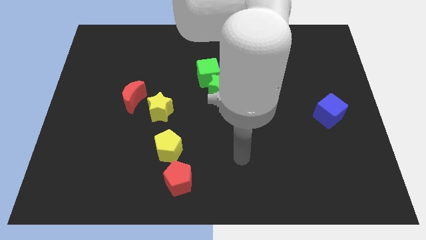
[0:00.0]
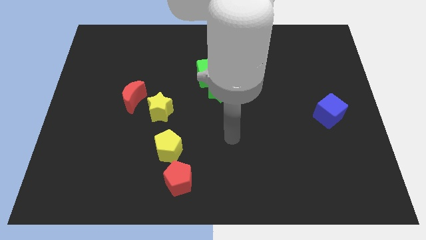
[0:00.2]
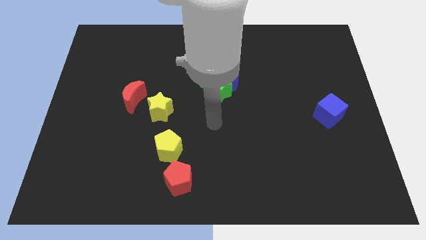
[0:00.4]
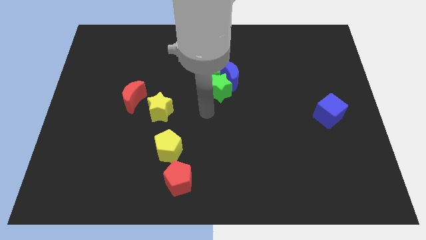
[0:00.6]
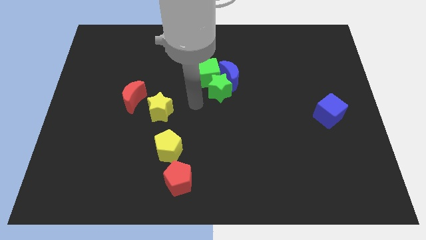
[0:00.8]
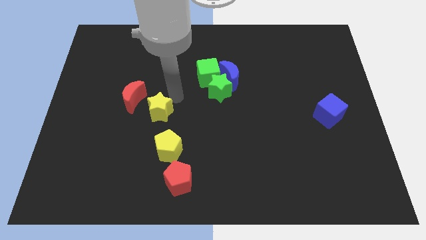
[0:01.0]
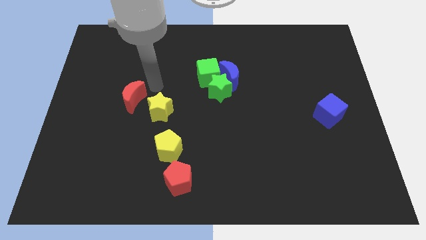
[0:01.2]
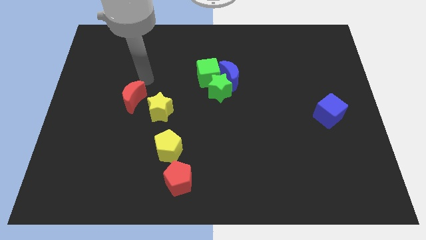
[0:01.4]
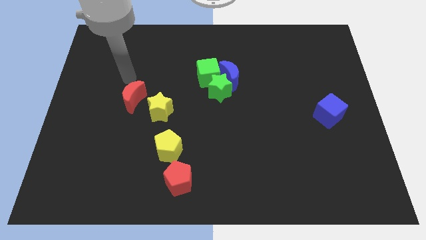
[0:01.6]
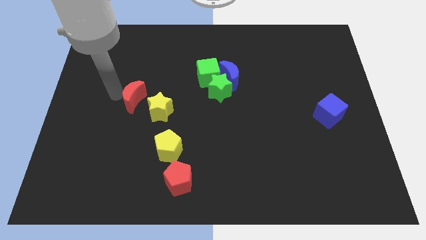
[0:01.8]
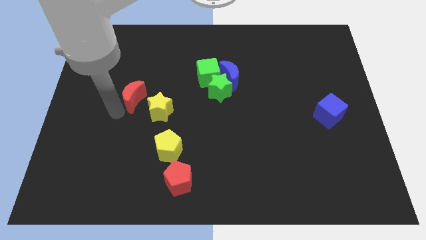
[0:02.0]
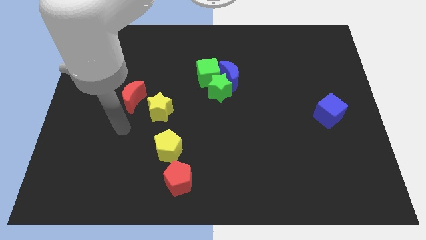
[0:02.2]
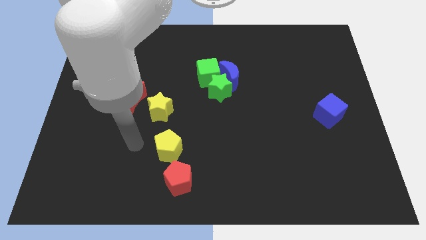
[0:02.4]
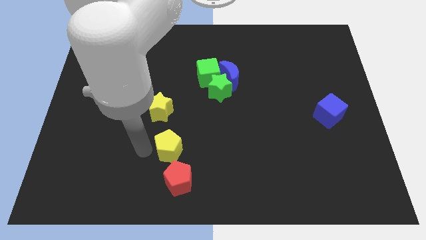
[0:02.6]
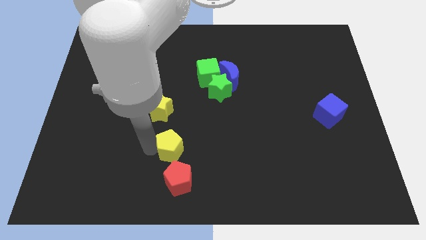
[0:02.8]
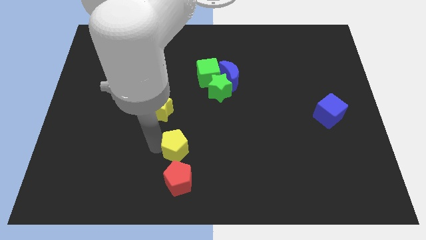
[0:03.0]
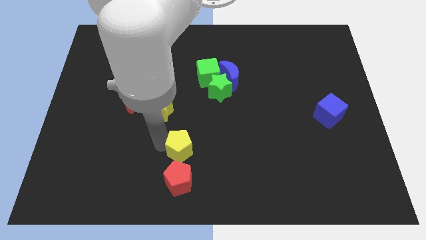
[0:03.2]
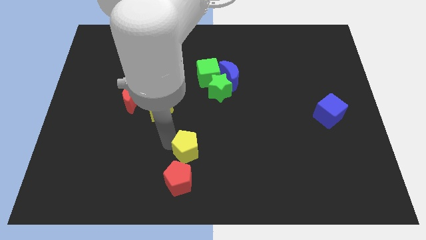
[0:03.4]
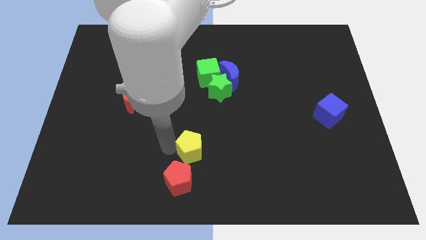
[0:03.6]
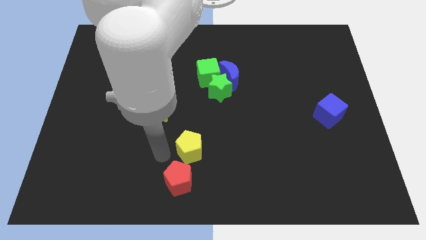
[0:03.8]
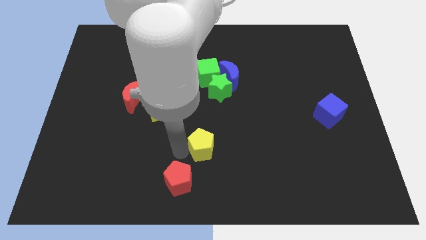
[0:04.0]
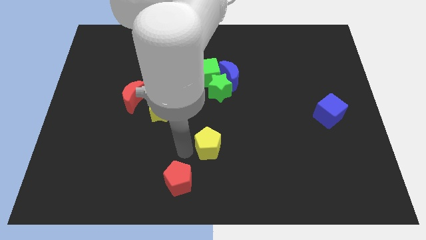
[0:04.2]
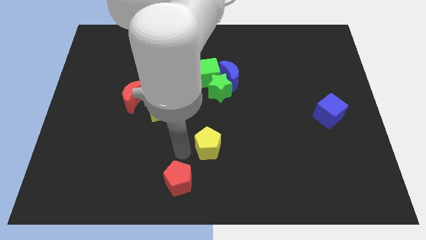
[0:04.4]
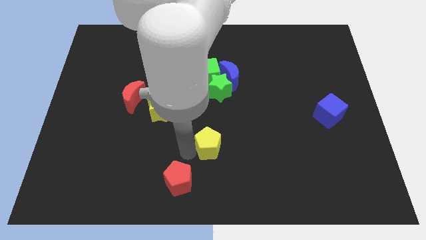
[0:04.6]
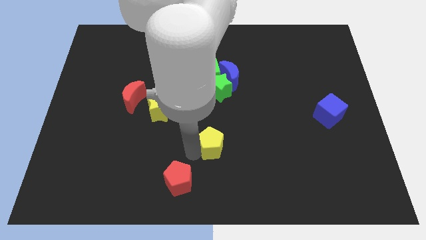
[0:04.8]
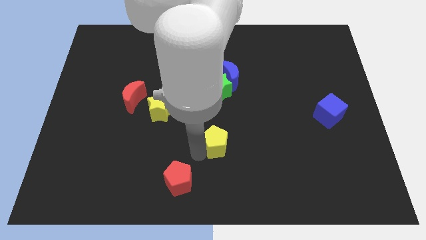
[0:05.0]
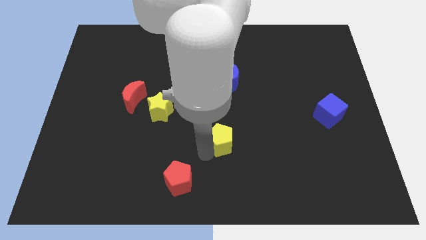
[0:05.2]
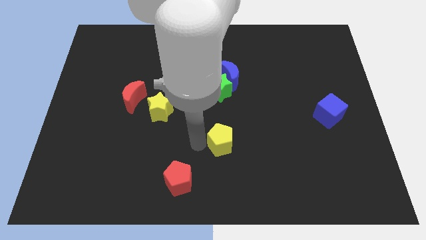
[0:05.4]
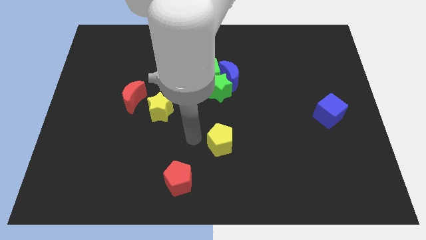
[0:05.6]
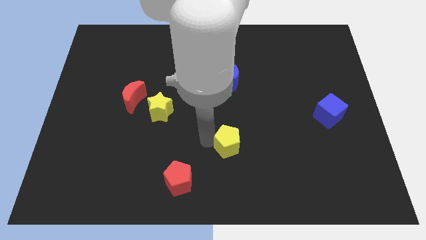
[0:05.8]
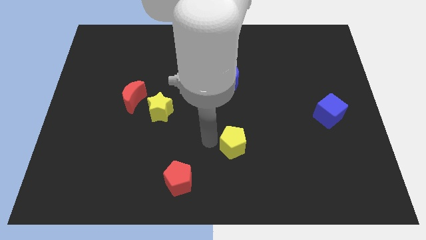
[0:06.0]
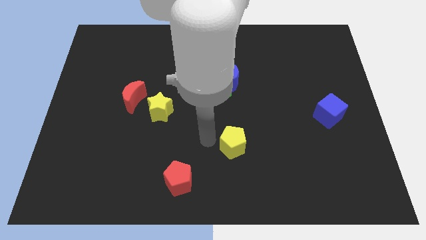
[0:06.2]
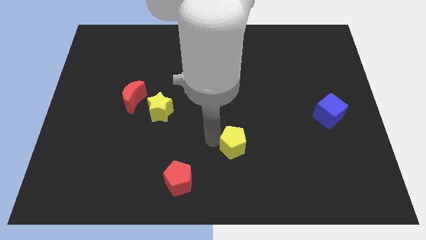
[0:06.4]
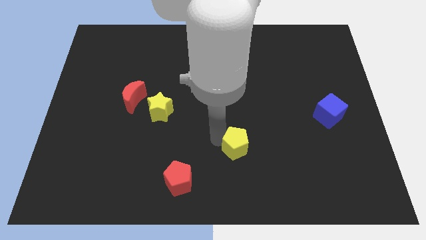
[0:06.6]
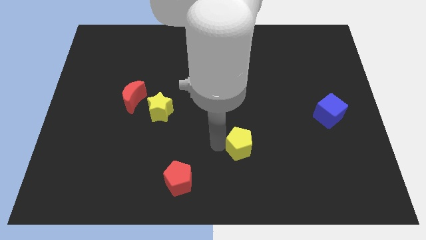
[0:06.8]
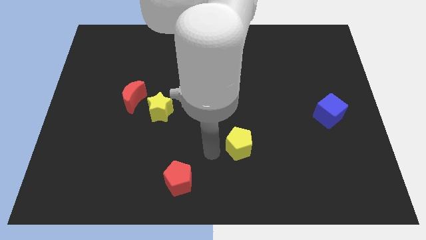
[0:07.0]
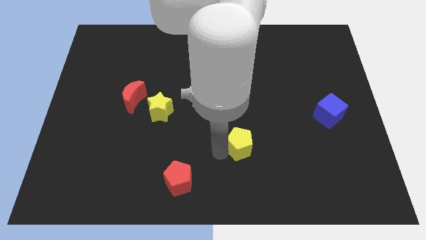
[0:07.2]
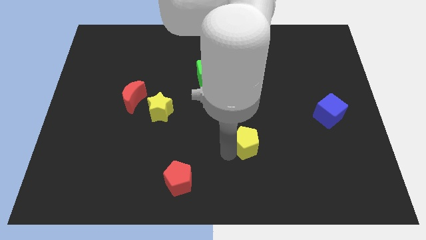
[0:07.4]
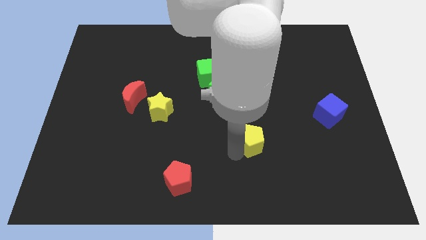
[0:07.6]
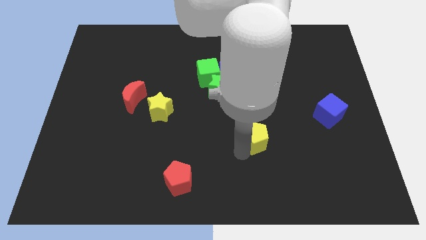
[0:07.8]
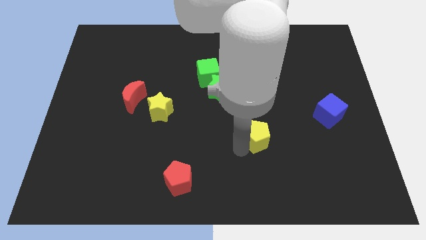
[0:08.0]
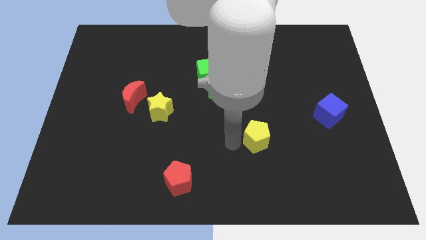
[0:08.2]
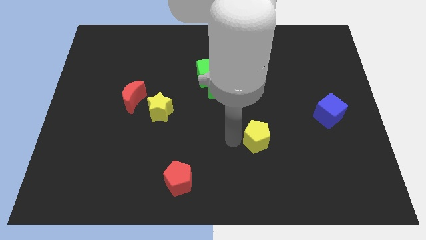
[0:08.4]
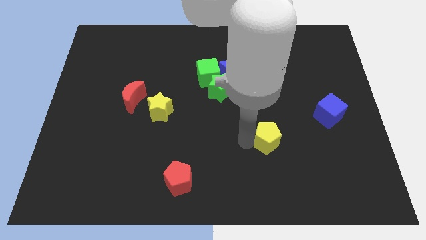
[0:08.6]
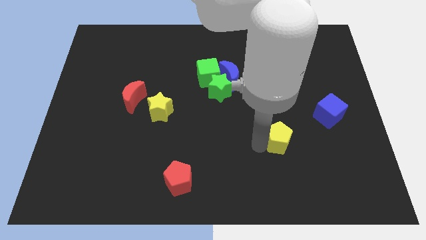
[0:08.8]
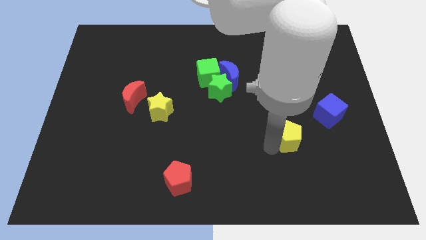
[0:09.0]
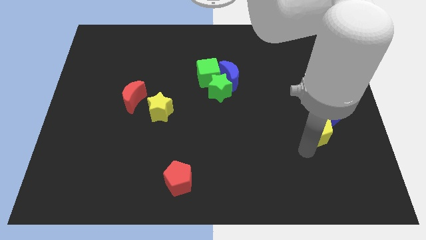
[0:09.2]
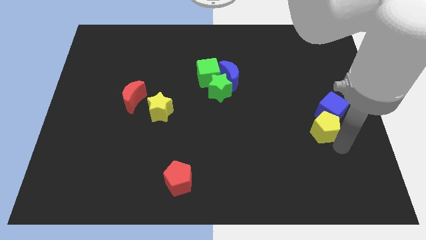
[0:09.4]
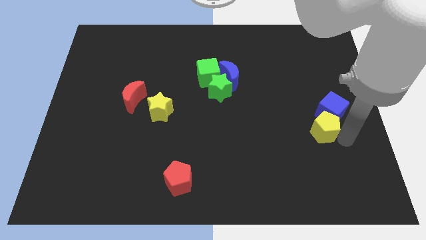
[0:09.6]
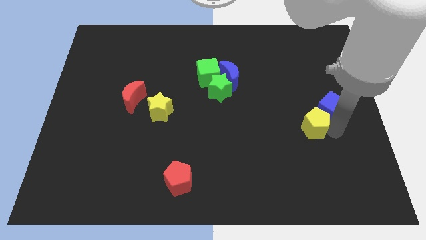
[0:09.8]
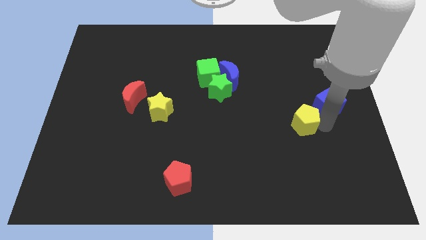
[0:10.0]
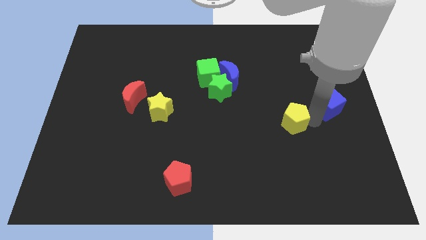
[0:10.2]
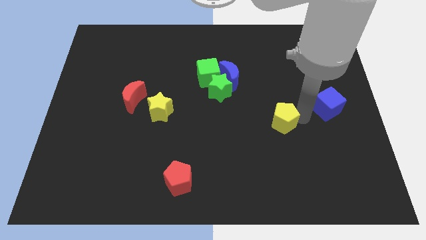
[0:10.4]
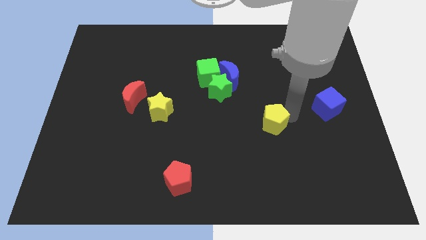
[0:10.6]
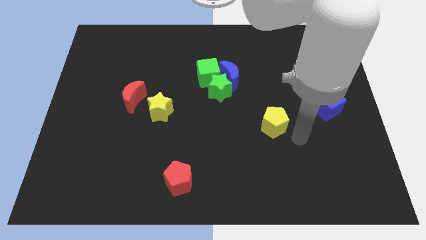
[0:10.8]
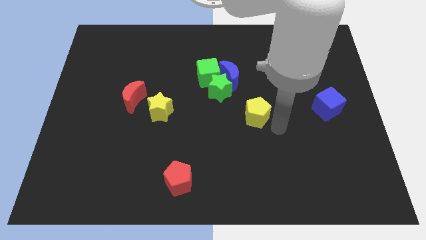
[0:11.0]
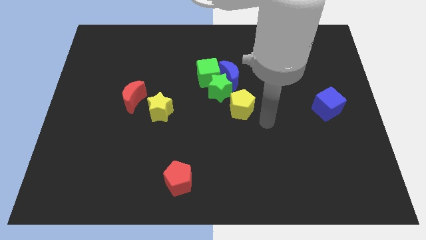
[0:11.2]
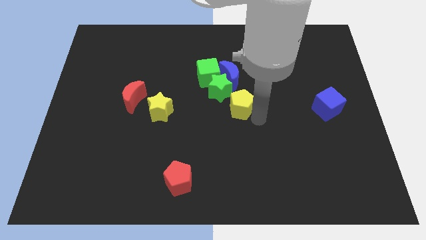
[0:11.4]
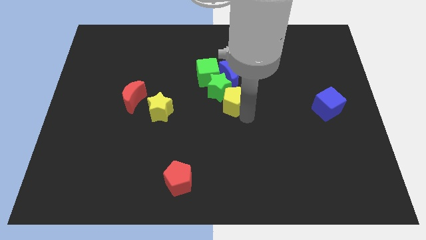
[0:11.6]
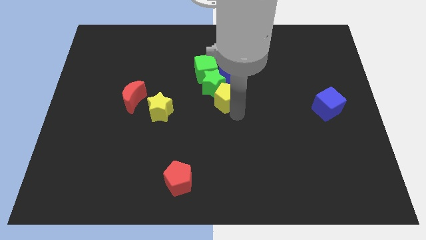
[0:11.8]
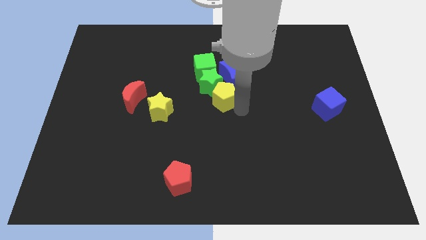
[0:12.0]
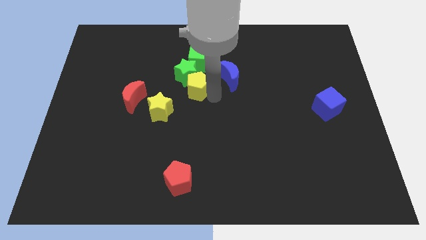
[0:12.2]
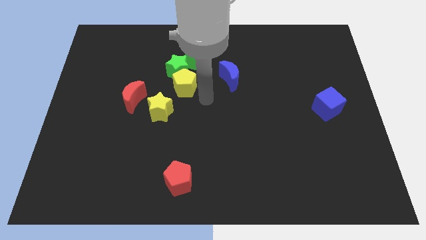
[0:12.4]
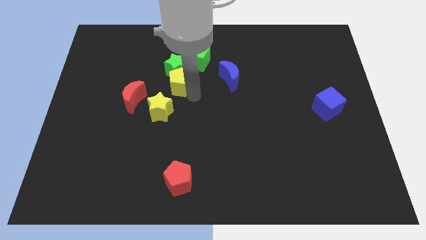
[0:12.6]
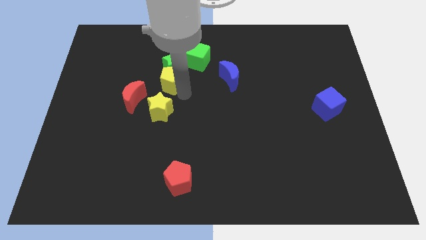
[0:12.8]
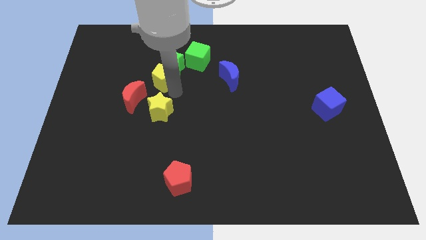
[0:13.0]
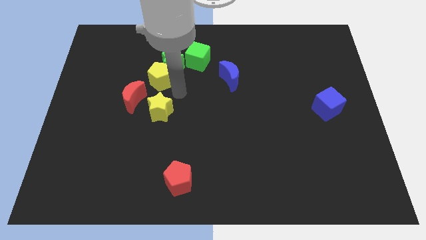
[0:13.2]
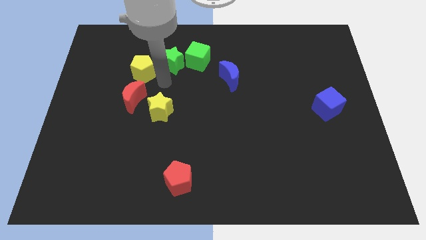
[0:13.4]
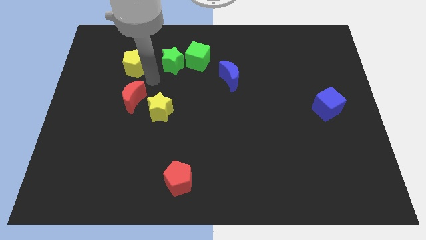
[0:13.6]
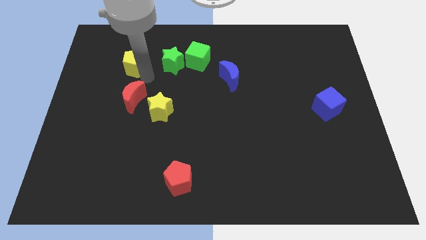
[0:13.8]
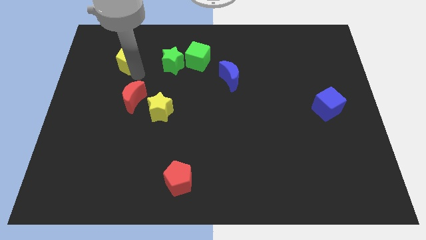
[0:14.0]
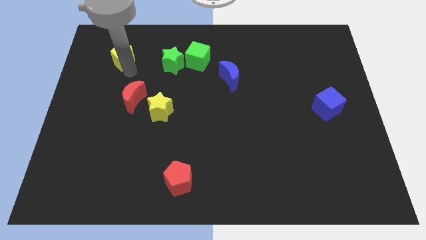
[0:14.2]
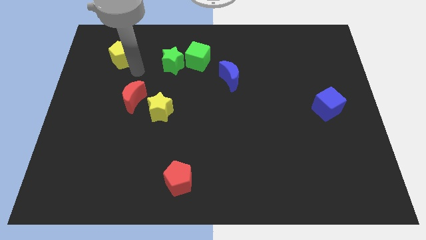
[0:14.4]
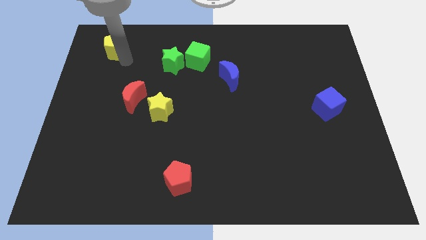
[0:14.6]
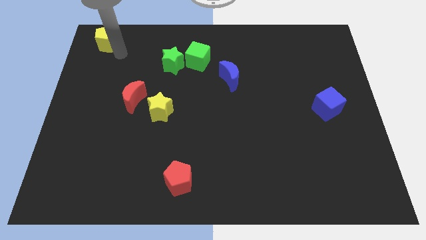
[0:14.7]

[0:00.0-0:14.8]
move the yellow pentagon to the upper left corner
